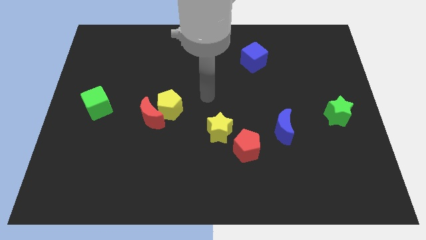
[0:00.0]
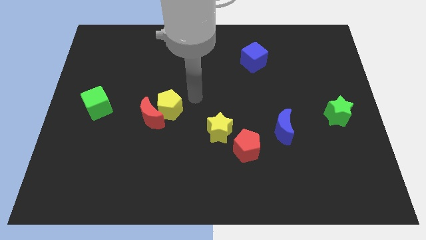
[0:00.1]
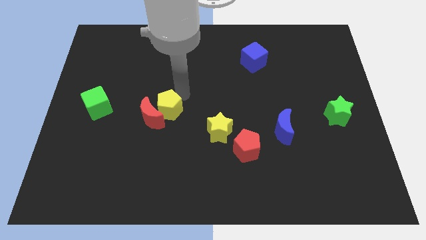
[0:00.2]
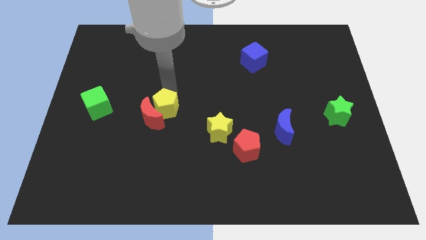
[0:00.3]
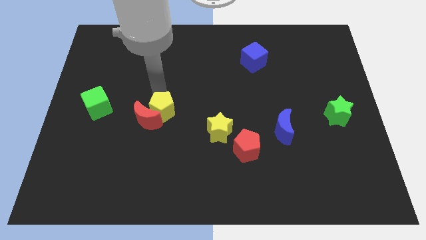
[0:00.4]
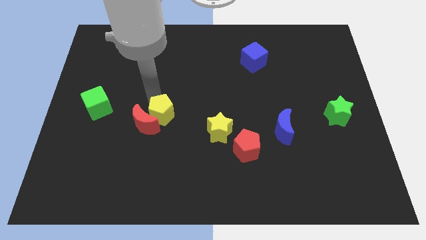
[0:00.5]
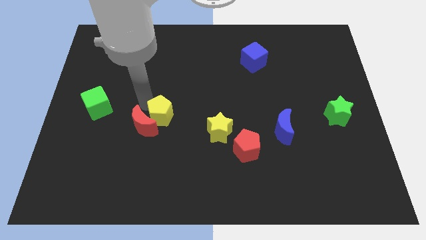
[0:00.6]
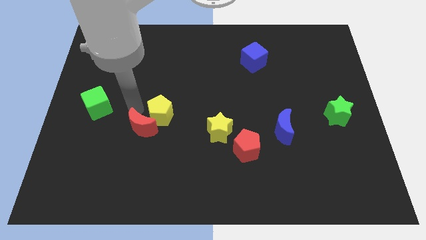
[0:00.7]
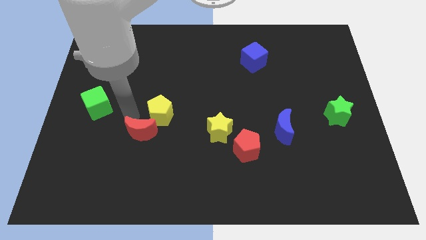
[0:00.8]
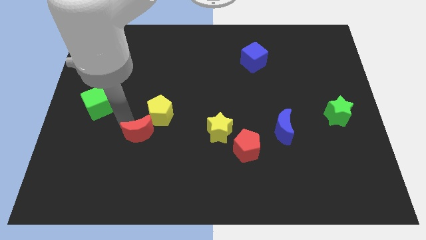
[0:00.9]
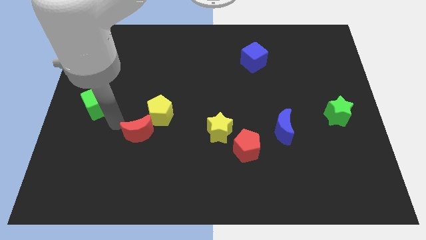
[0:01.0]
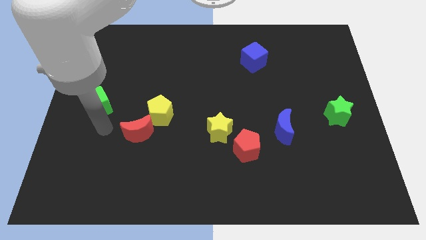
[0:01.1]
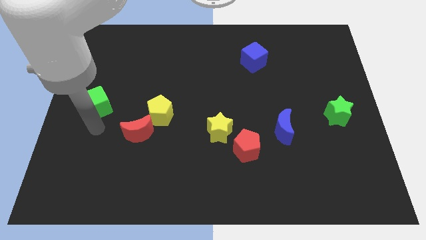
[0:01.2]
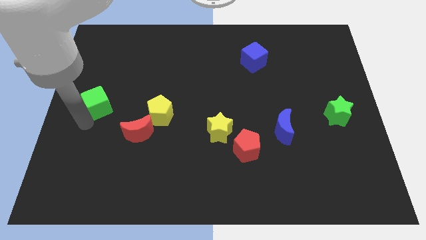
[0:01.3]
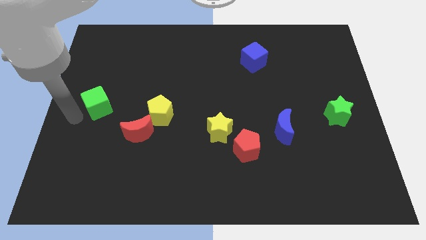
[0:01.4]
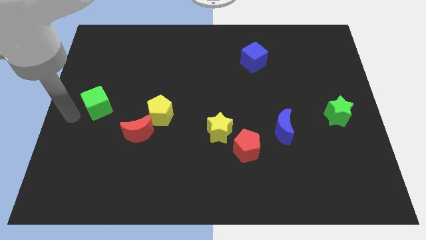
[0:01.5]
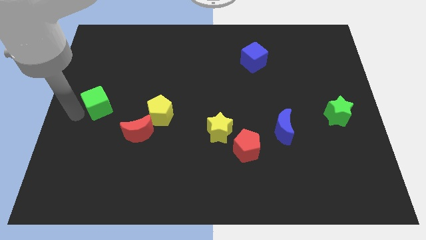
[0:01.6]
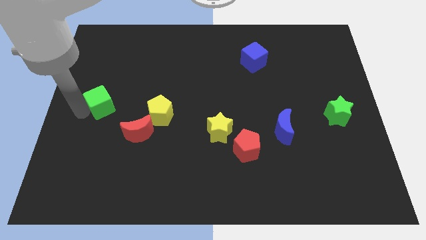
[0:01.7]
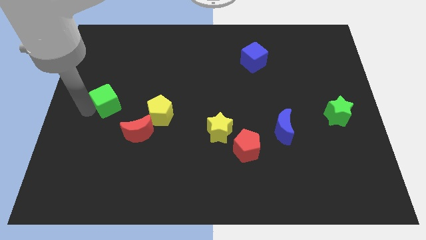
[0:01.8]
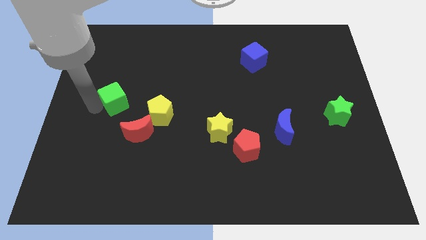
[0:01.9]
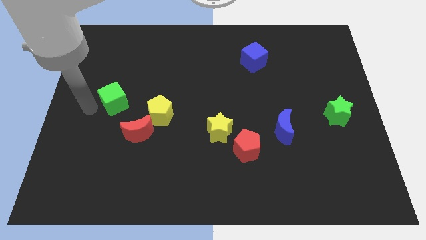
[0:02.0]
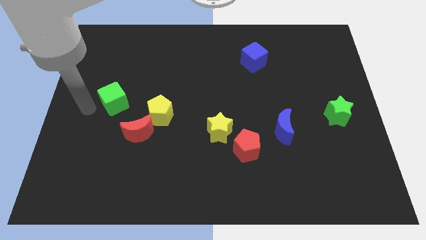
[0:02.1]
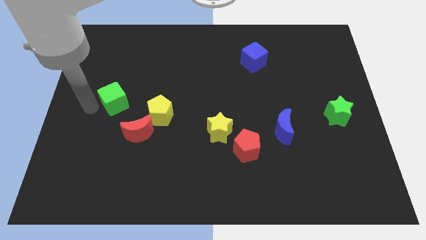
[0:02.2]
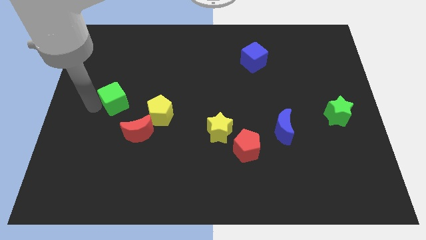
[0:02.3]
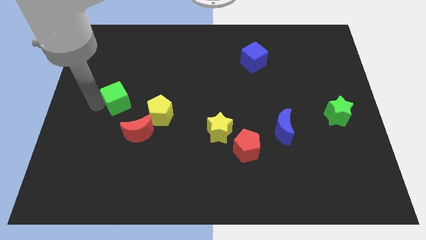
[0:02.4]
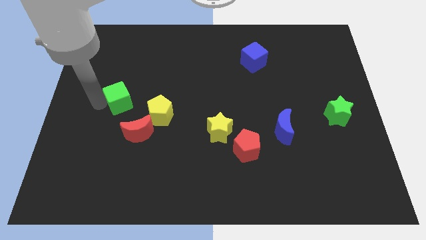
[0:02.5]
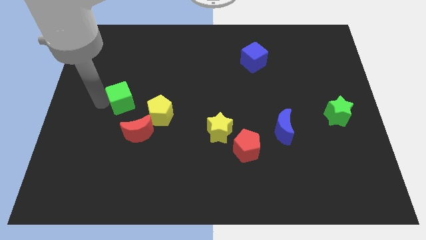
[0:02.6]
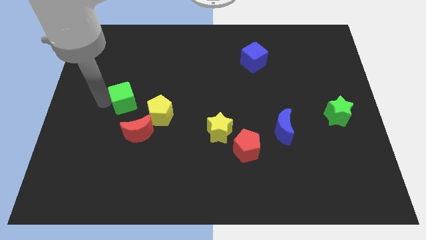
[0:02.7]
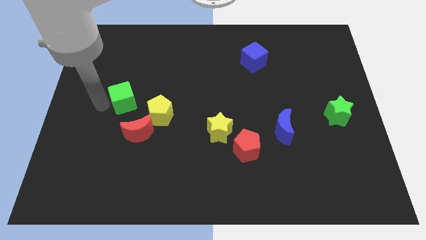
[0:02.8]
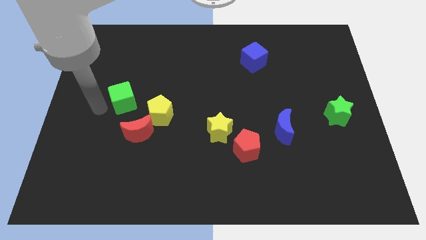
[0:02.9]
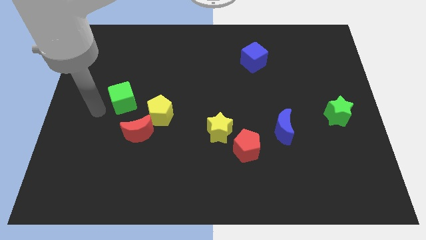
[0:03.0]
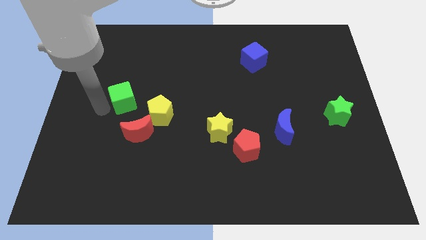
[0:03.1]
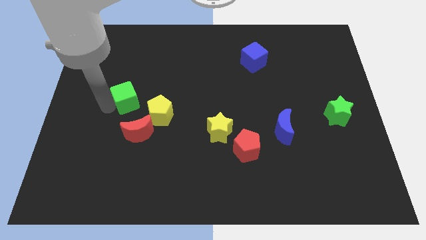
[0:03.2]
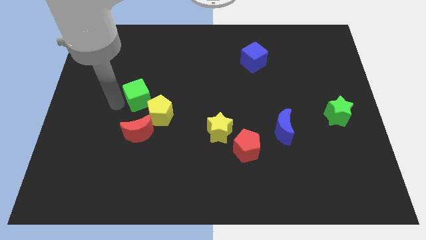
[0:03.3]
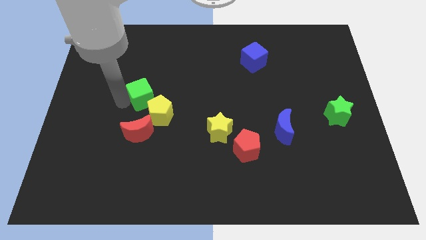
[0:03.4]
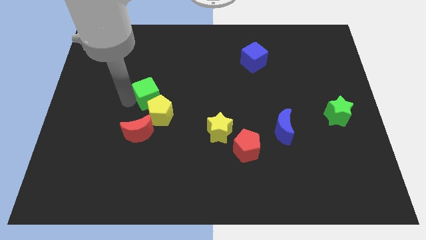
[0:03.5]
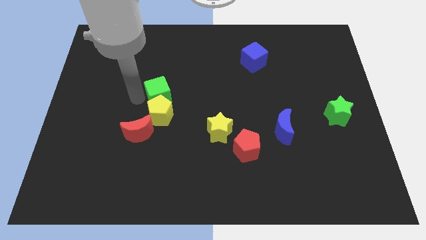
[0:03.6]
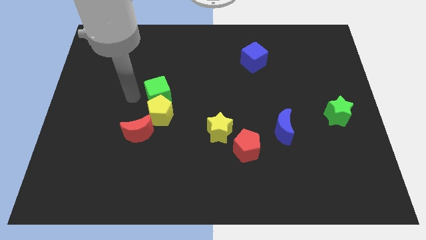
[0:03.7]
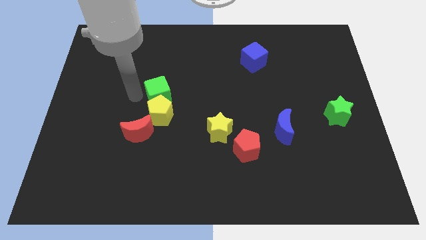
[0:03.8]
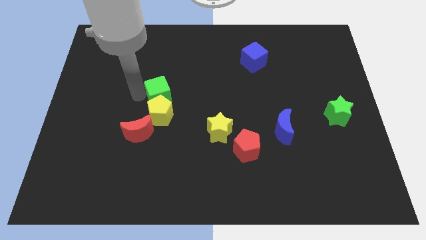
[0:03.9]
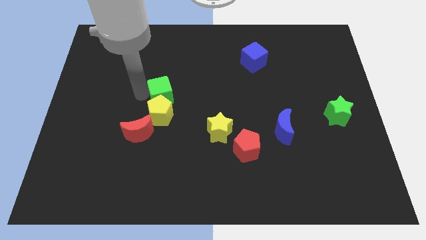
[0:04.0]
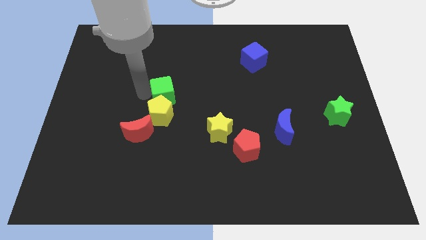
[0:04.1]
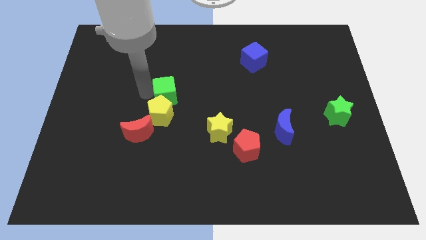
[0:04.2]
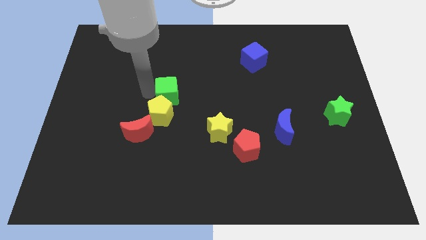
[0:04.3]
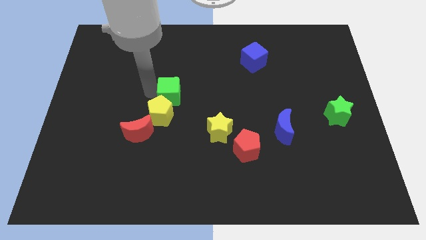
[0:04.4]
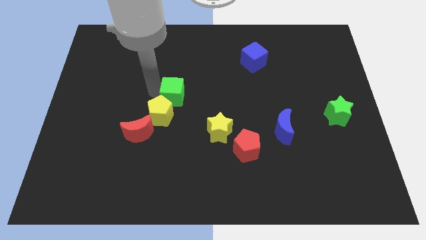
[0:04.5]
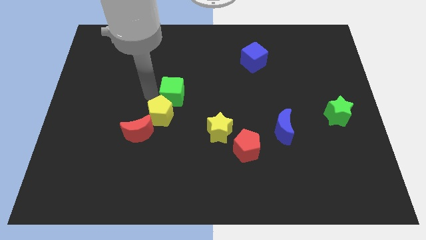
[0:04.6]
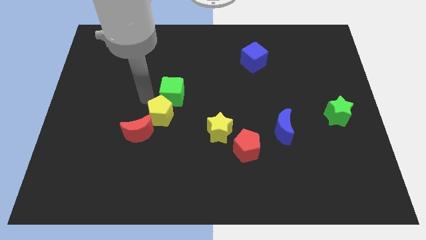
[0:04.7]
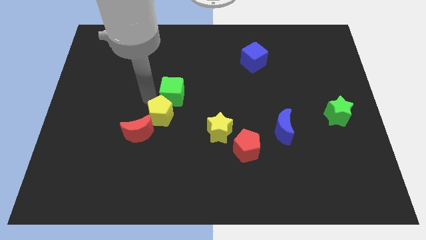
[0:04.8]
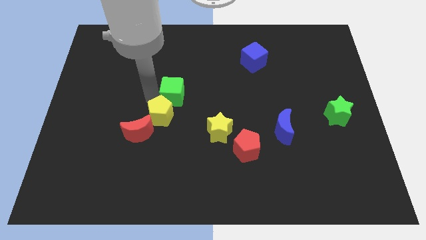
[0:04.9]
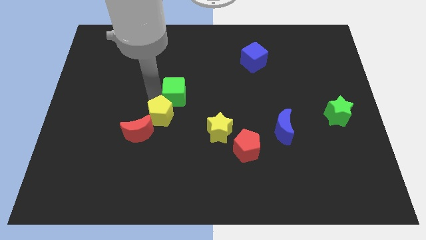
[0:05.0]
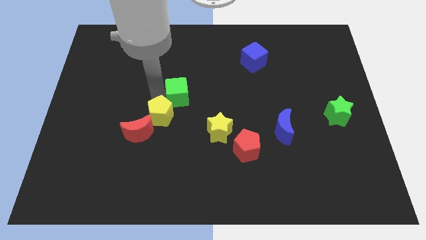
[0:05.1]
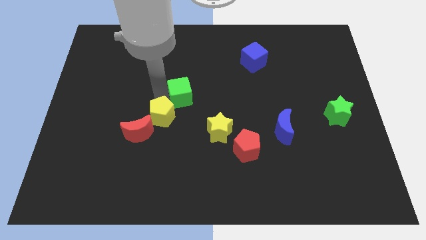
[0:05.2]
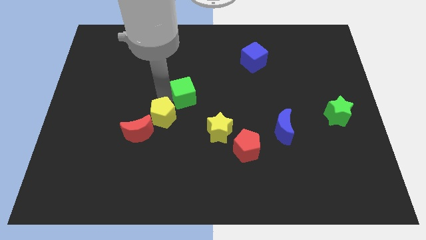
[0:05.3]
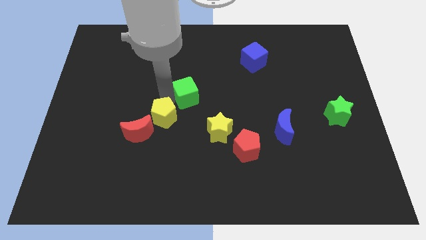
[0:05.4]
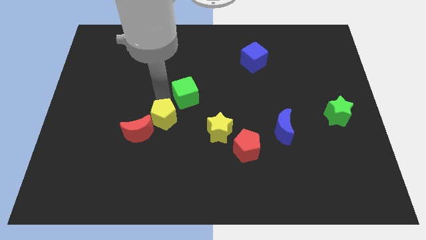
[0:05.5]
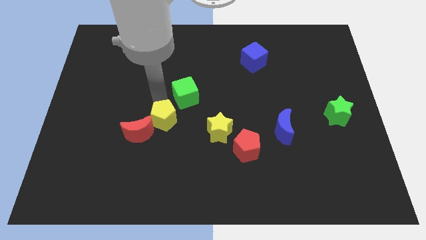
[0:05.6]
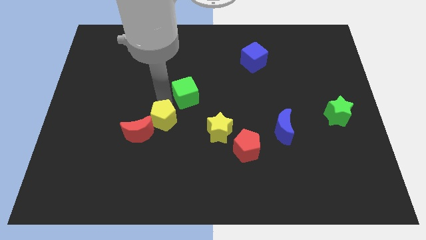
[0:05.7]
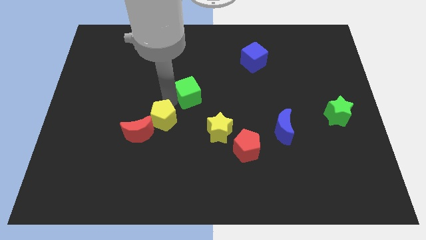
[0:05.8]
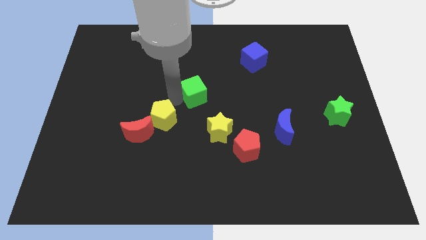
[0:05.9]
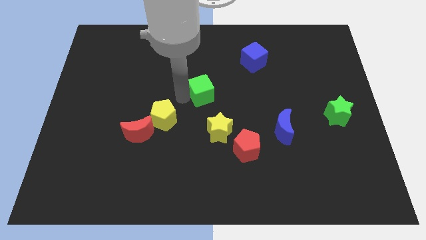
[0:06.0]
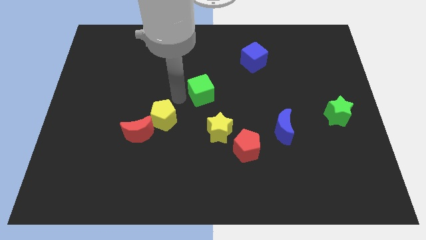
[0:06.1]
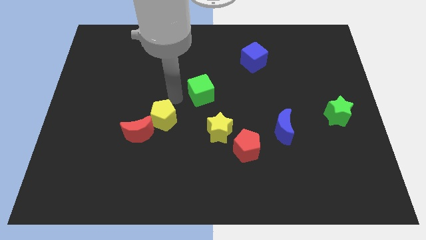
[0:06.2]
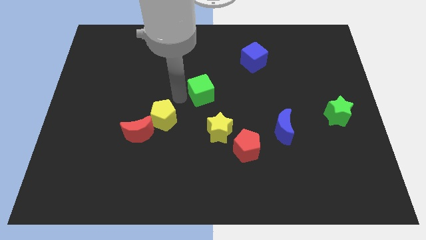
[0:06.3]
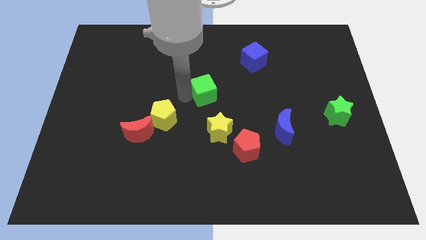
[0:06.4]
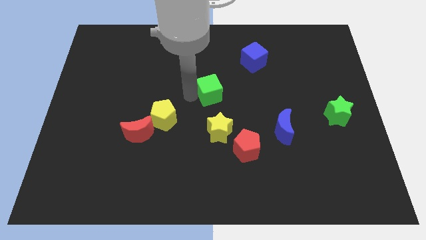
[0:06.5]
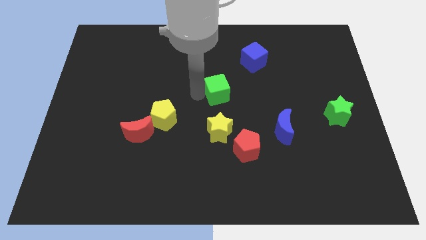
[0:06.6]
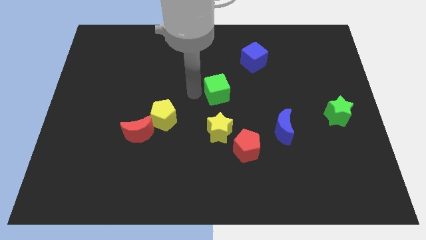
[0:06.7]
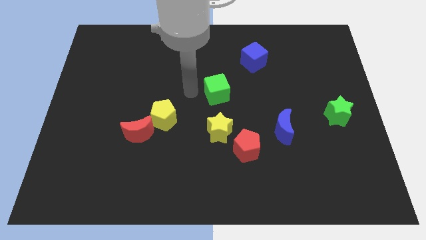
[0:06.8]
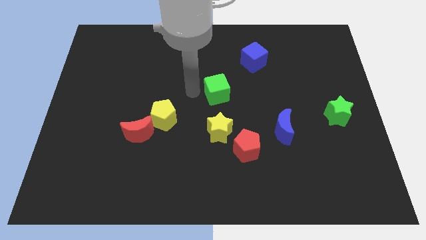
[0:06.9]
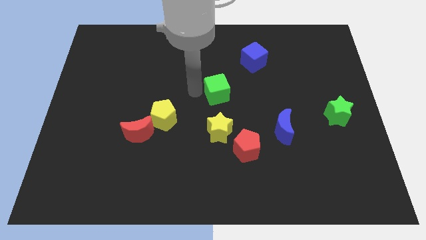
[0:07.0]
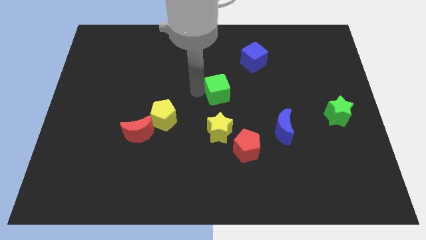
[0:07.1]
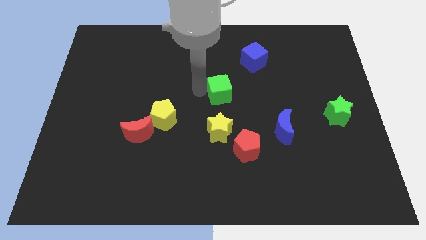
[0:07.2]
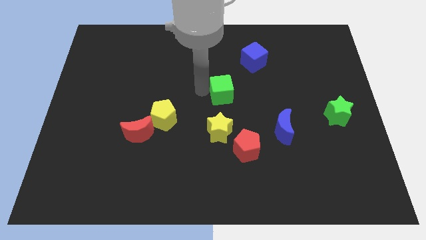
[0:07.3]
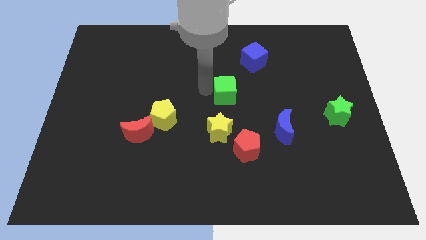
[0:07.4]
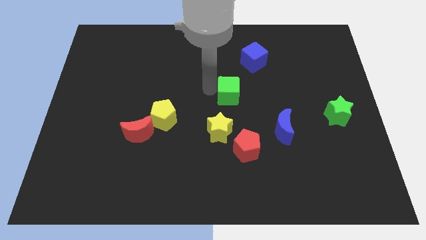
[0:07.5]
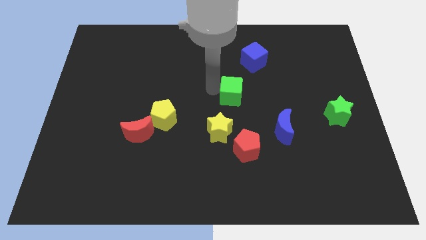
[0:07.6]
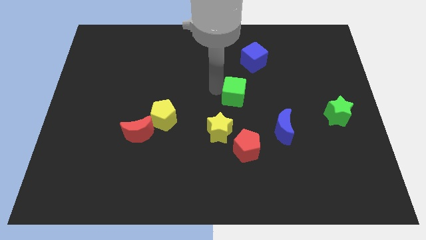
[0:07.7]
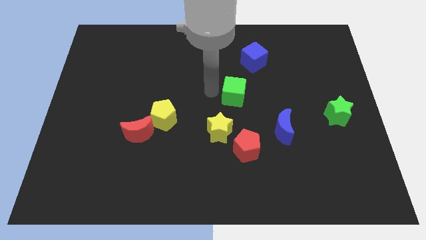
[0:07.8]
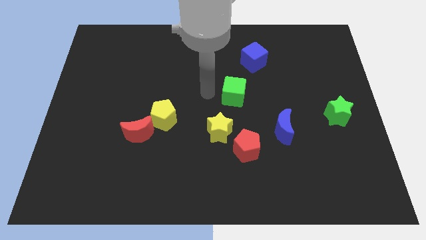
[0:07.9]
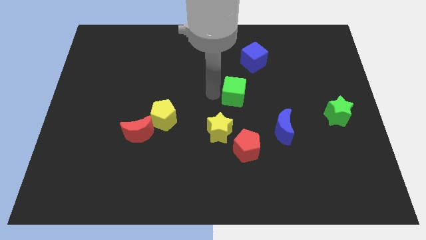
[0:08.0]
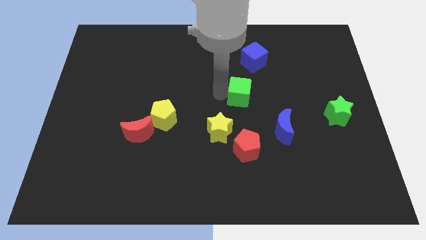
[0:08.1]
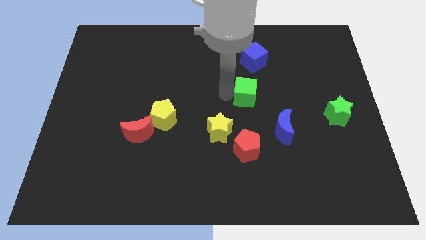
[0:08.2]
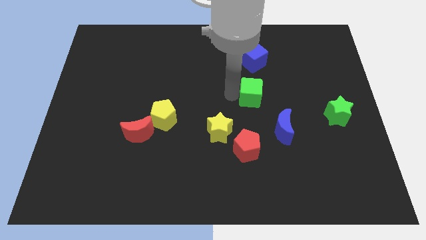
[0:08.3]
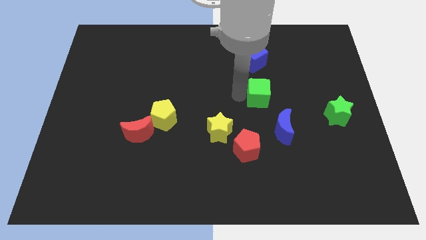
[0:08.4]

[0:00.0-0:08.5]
slide the green cube to the top side of the blue moon
